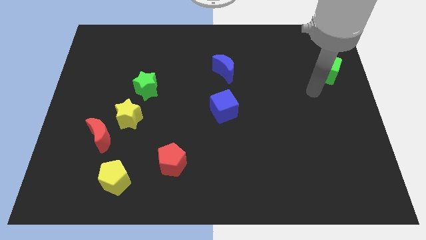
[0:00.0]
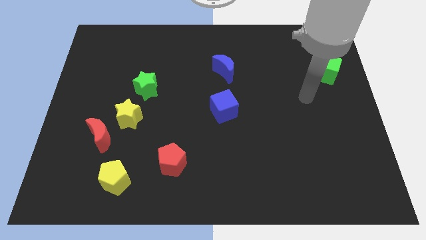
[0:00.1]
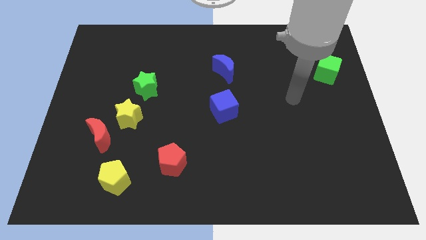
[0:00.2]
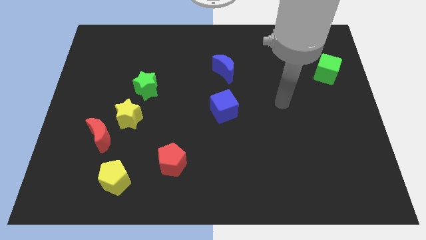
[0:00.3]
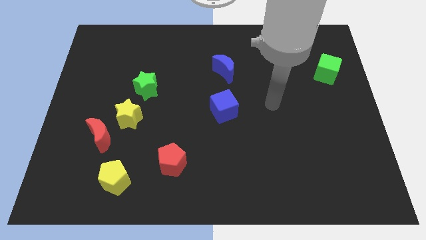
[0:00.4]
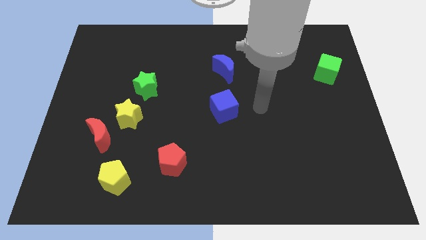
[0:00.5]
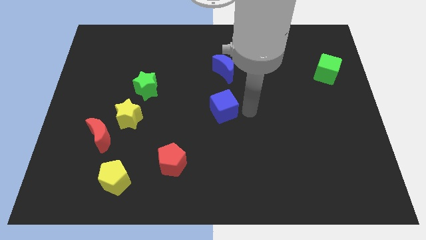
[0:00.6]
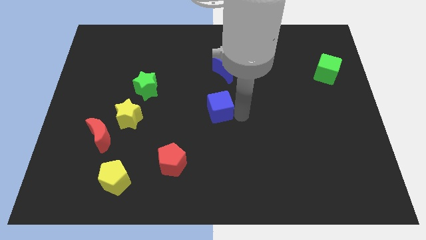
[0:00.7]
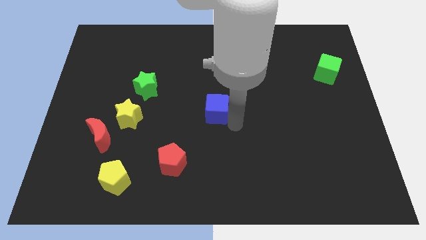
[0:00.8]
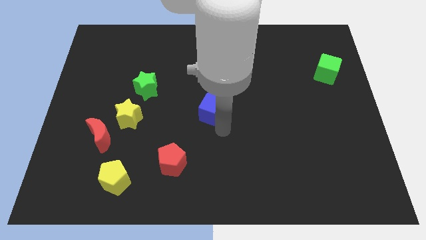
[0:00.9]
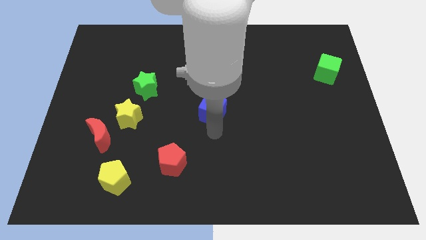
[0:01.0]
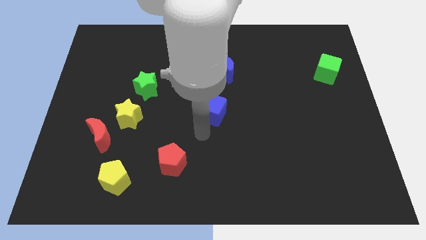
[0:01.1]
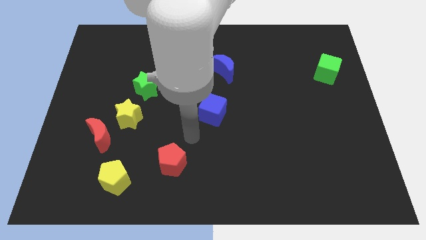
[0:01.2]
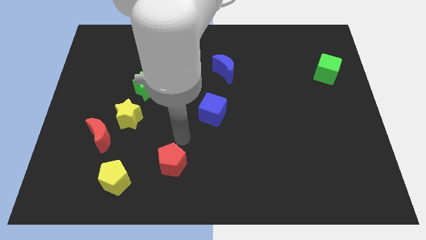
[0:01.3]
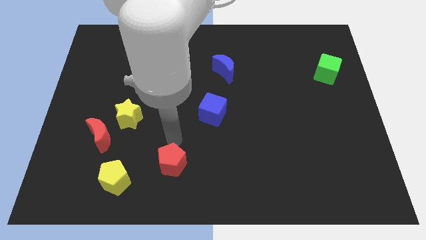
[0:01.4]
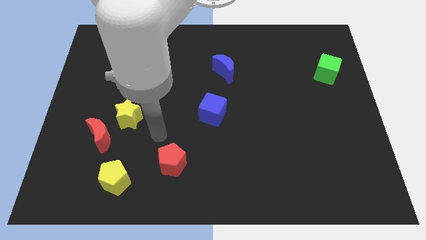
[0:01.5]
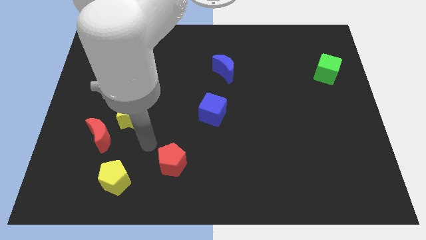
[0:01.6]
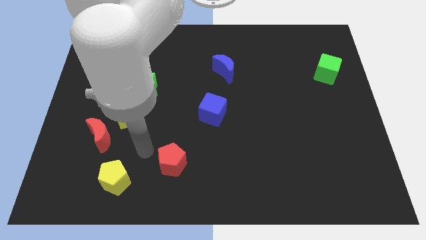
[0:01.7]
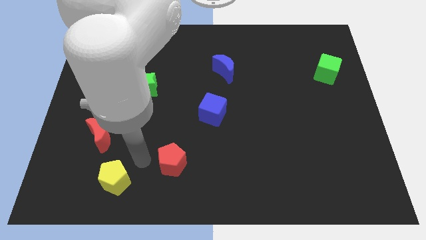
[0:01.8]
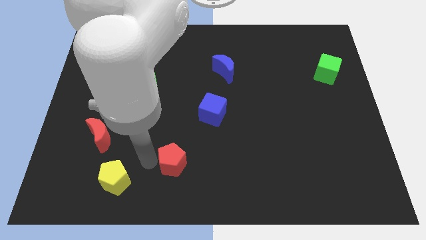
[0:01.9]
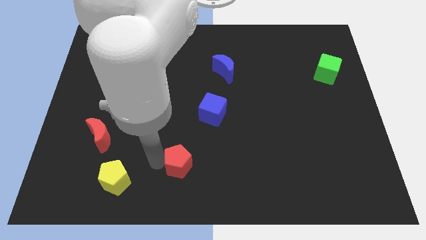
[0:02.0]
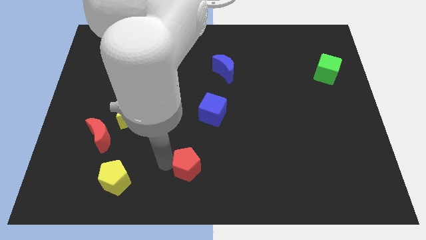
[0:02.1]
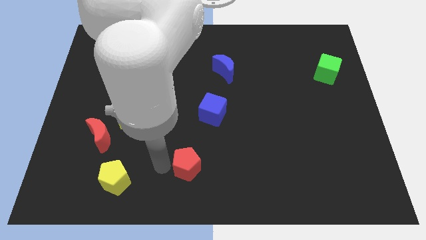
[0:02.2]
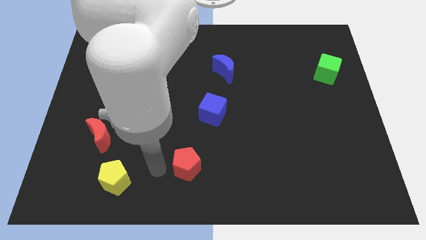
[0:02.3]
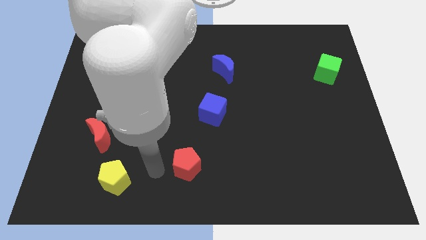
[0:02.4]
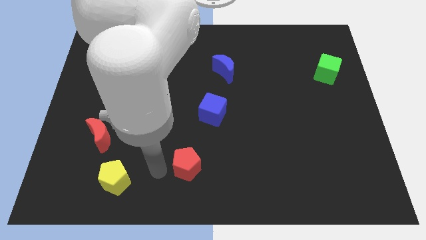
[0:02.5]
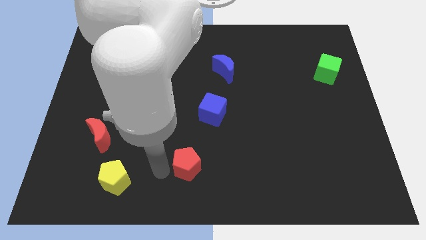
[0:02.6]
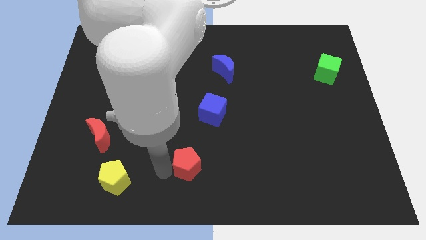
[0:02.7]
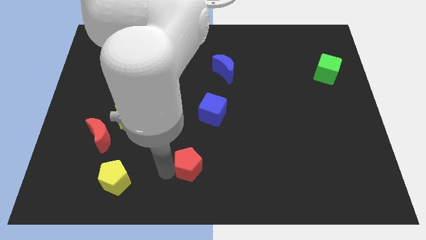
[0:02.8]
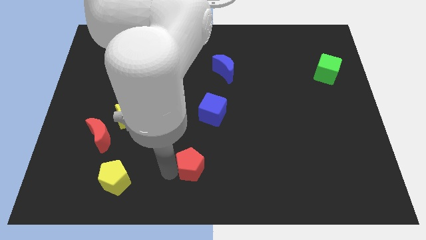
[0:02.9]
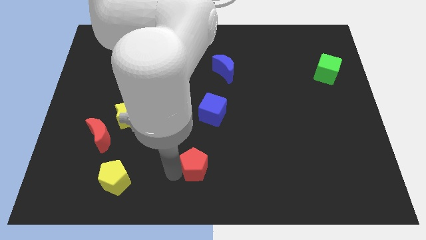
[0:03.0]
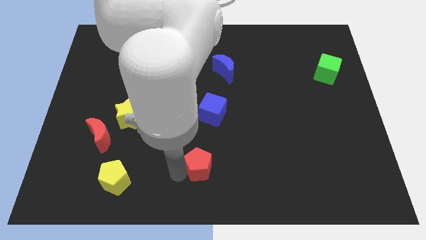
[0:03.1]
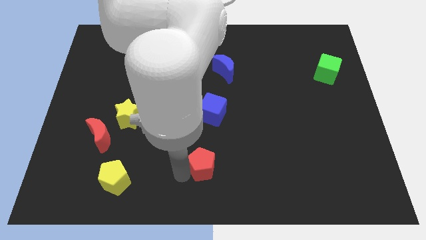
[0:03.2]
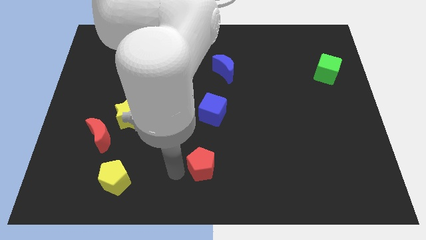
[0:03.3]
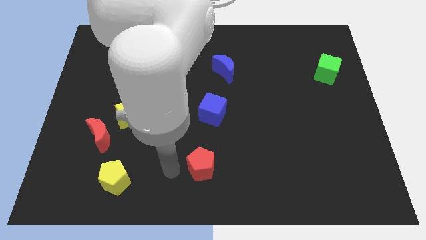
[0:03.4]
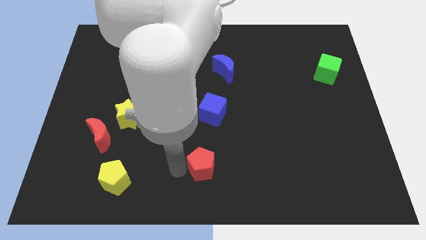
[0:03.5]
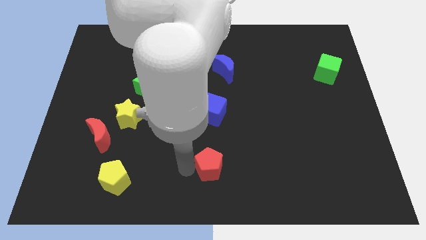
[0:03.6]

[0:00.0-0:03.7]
slide the red pentagon a little bit right

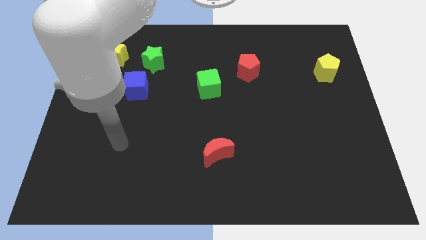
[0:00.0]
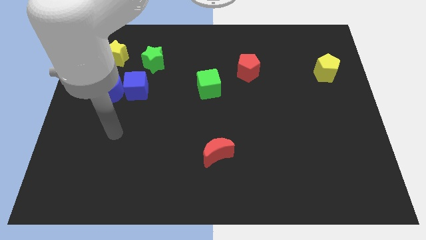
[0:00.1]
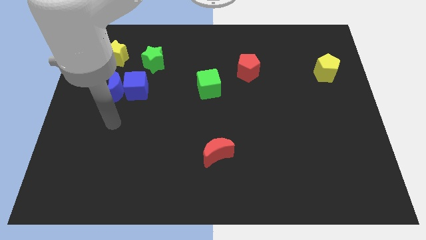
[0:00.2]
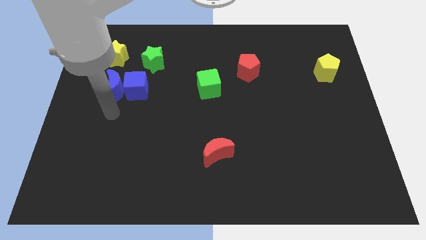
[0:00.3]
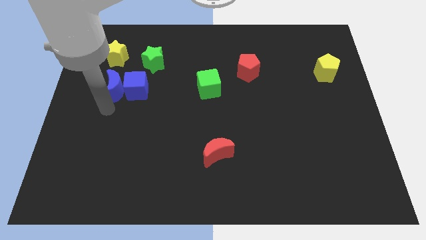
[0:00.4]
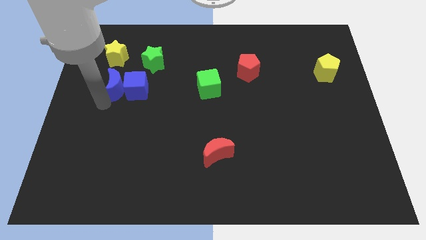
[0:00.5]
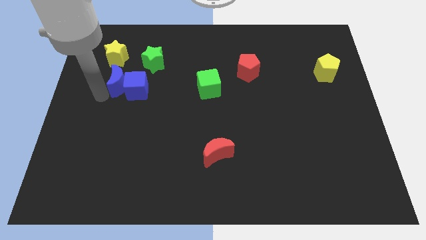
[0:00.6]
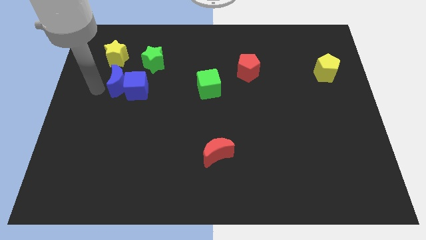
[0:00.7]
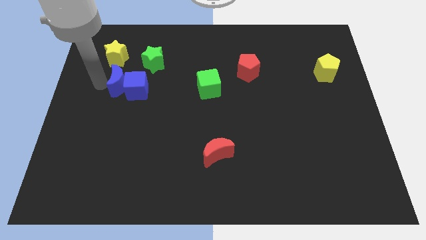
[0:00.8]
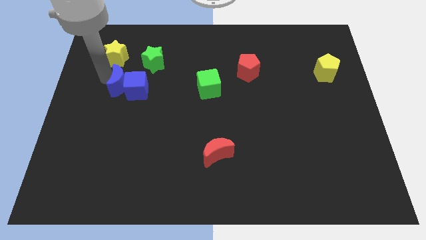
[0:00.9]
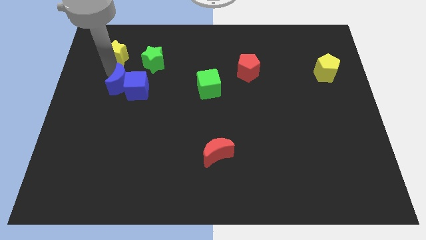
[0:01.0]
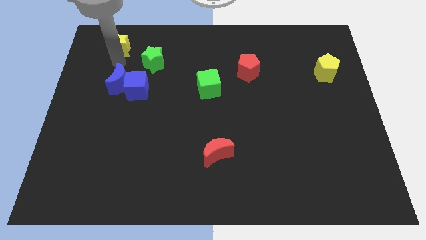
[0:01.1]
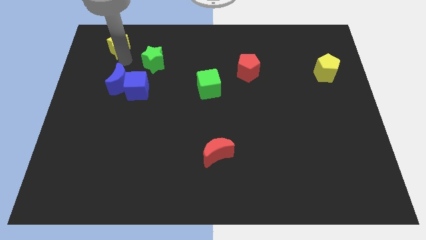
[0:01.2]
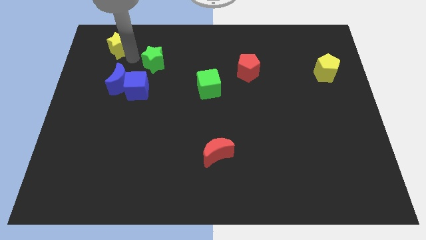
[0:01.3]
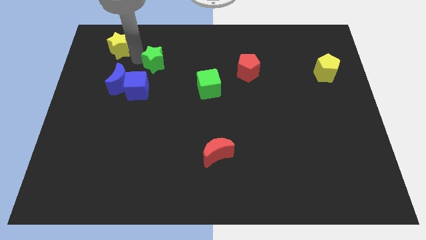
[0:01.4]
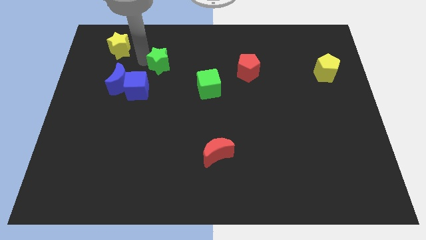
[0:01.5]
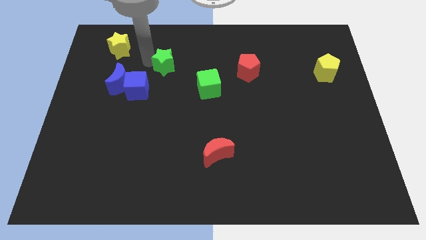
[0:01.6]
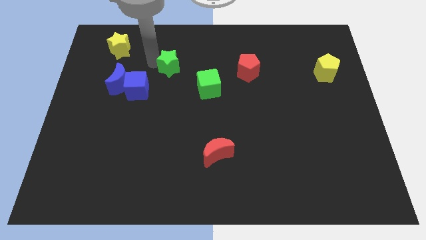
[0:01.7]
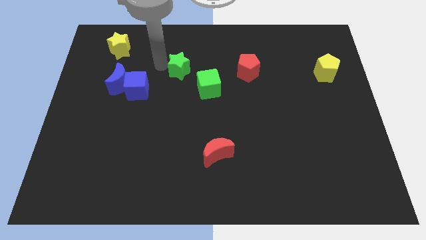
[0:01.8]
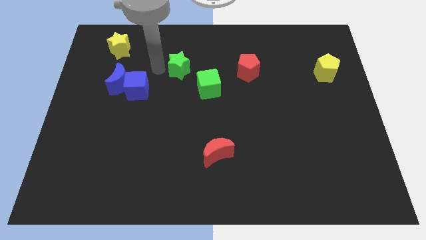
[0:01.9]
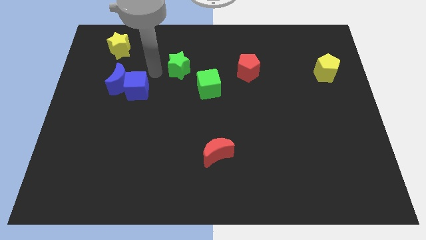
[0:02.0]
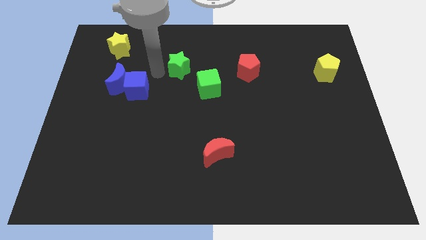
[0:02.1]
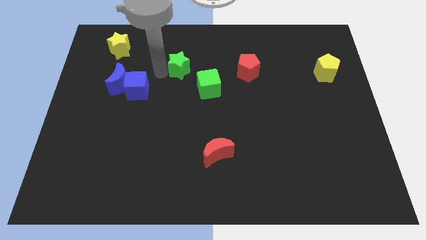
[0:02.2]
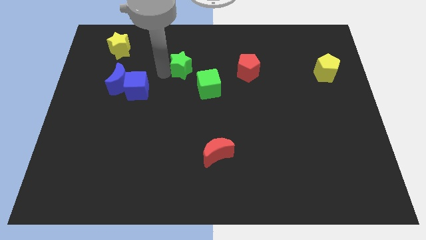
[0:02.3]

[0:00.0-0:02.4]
slightly slide the green star to the right

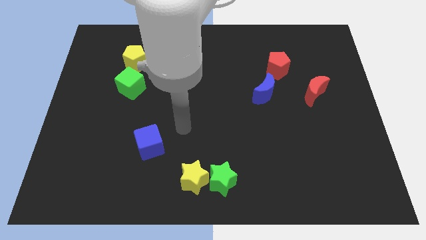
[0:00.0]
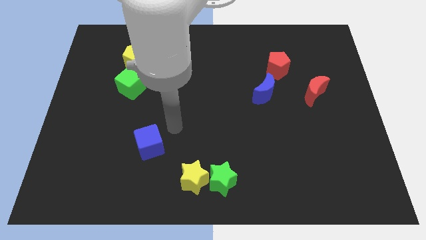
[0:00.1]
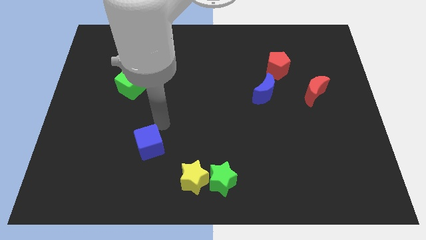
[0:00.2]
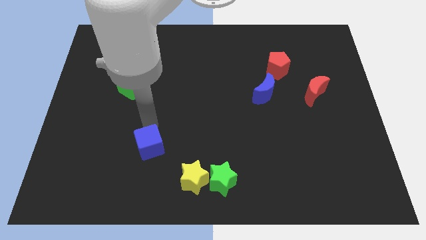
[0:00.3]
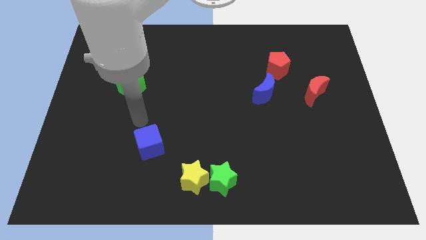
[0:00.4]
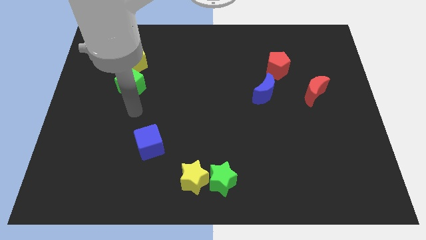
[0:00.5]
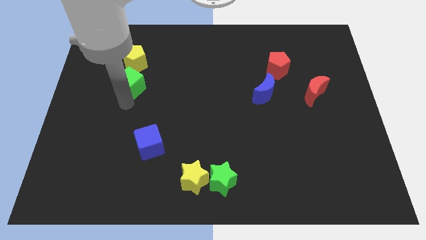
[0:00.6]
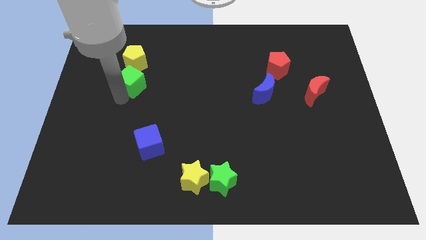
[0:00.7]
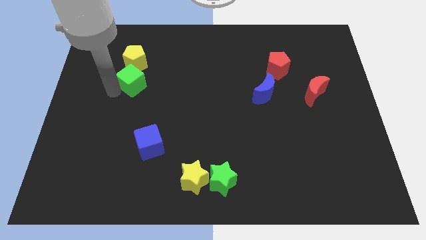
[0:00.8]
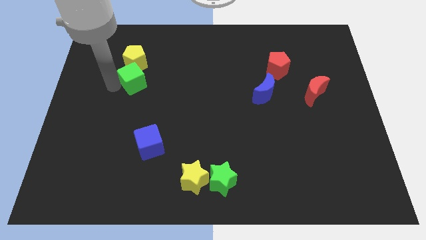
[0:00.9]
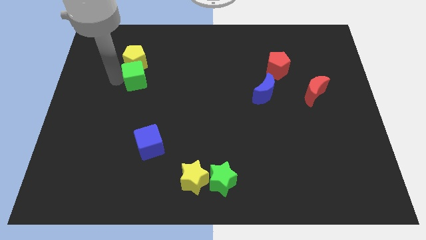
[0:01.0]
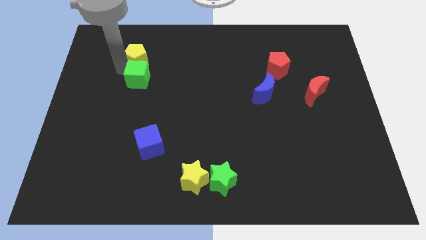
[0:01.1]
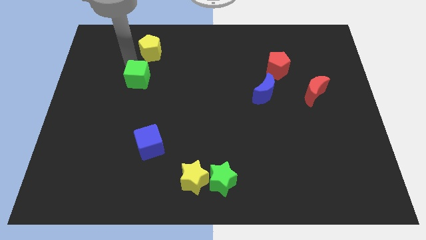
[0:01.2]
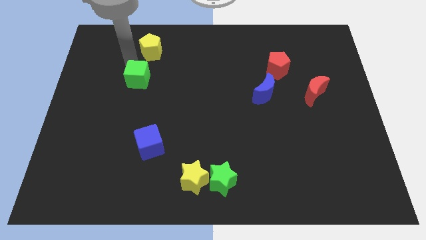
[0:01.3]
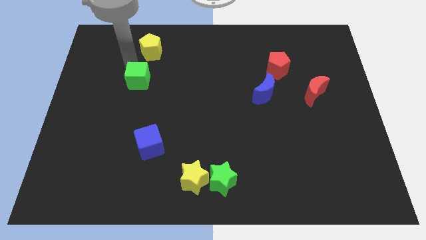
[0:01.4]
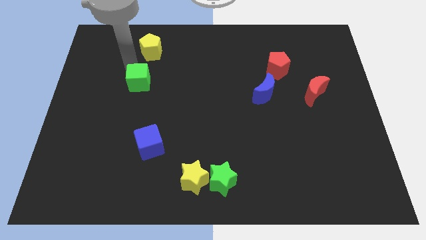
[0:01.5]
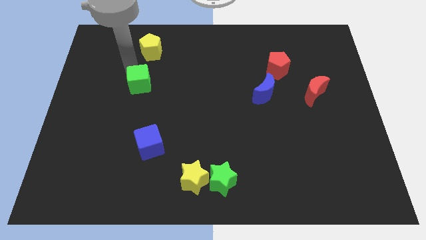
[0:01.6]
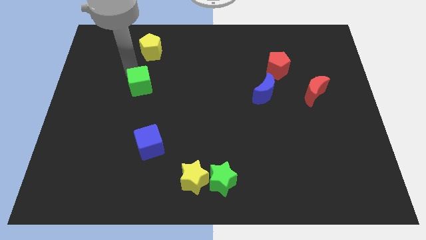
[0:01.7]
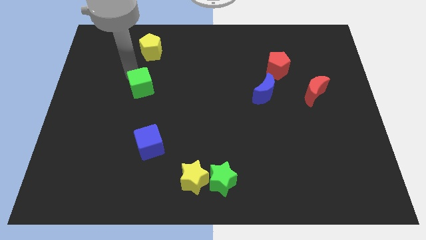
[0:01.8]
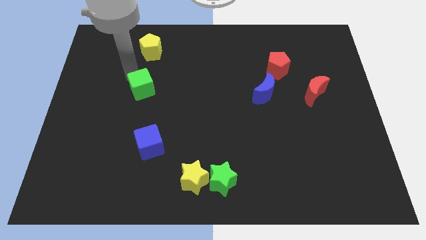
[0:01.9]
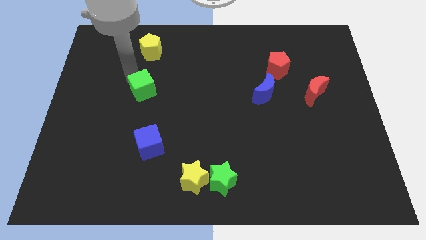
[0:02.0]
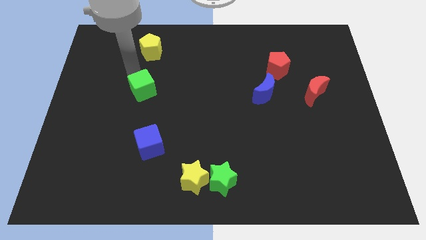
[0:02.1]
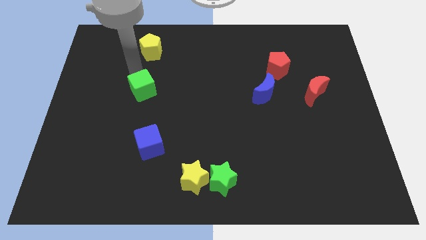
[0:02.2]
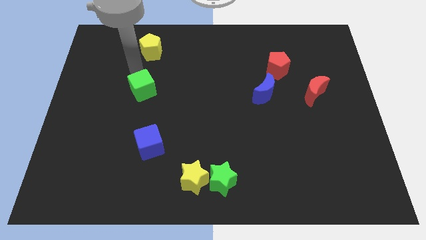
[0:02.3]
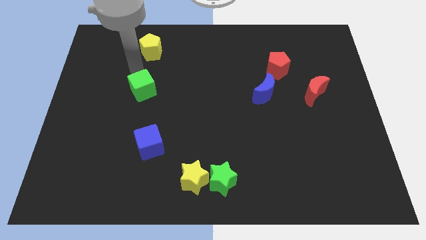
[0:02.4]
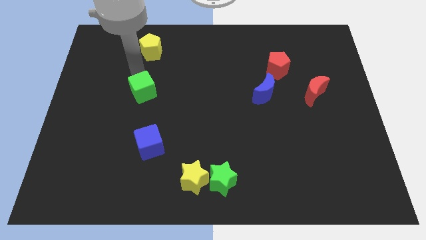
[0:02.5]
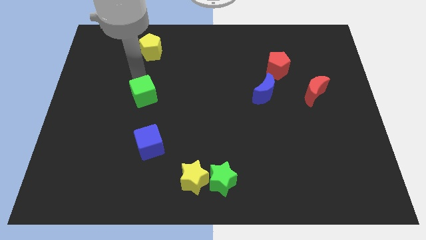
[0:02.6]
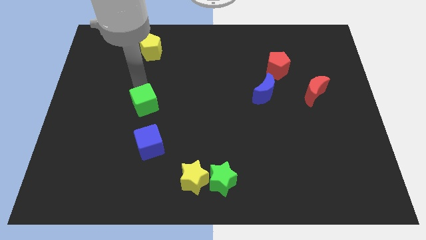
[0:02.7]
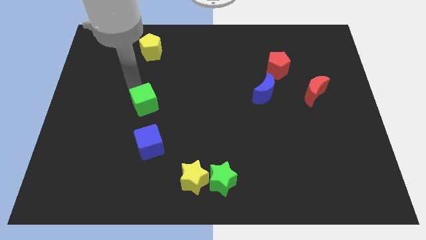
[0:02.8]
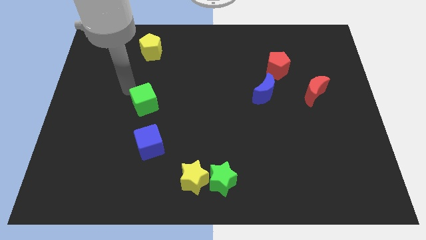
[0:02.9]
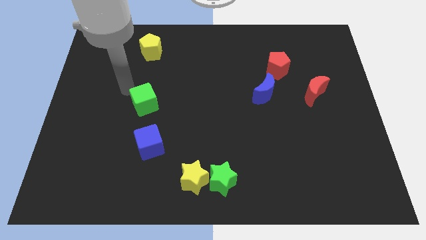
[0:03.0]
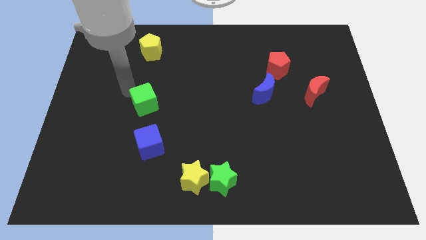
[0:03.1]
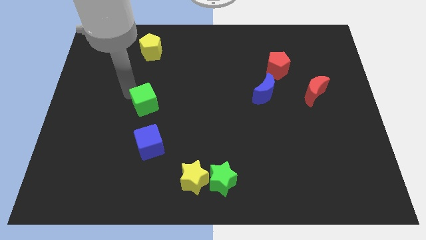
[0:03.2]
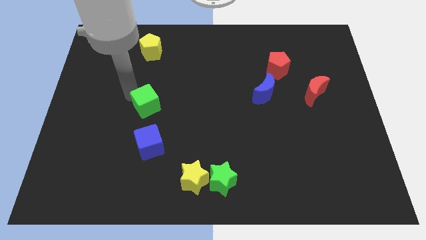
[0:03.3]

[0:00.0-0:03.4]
push the green cube down and right a little
